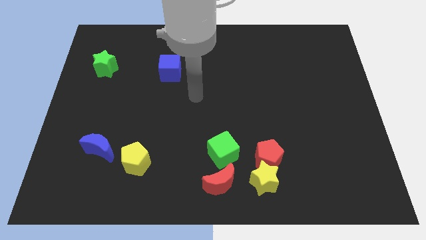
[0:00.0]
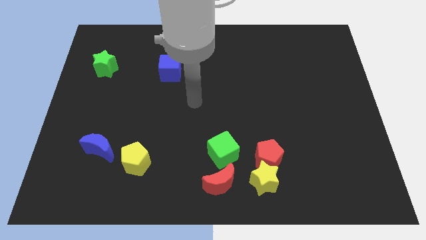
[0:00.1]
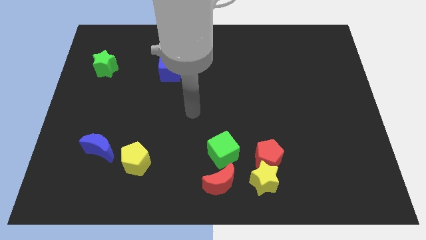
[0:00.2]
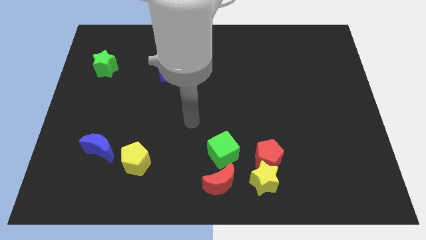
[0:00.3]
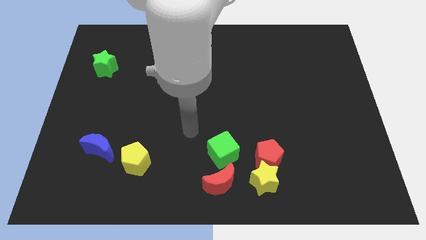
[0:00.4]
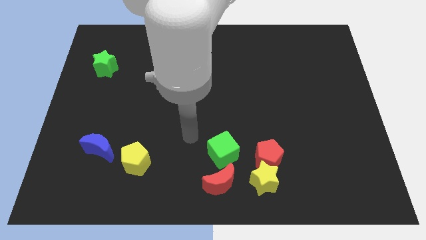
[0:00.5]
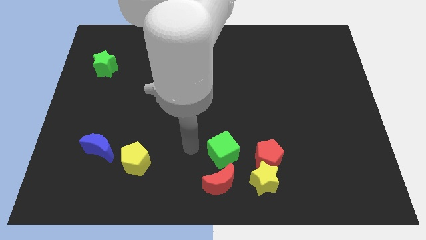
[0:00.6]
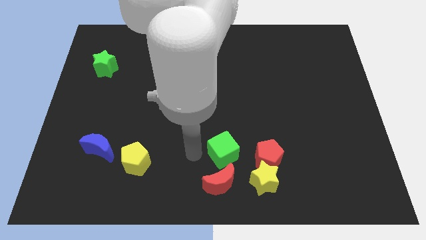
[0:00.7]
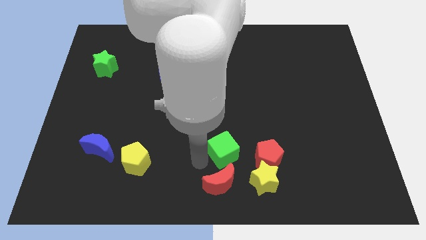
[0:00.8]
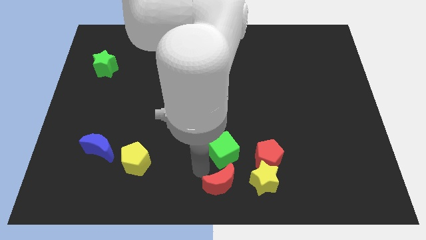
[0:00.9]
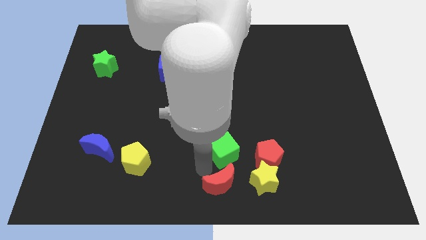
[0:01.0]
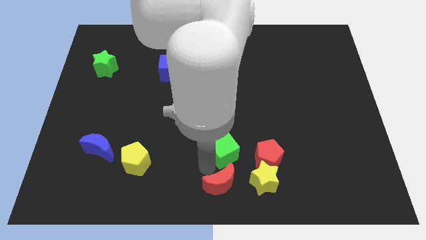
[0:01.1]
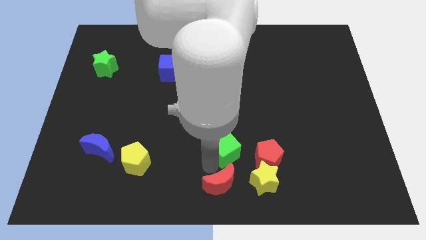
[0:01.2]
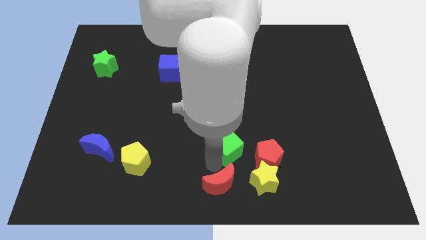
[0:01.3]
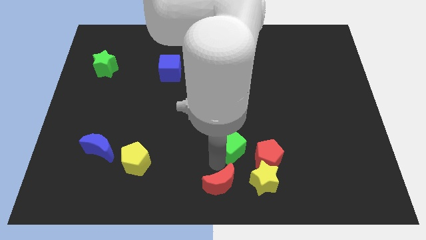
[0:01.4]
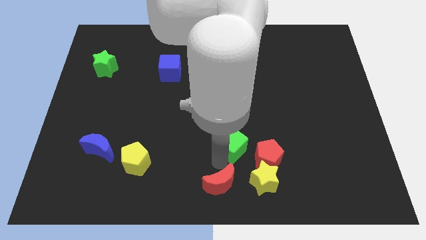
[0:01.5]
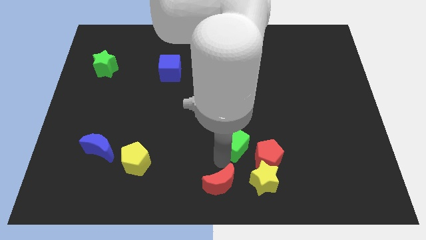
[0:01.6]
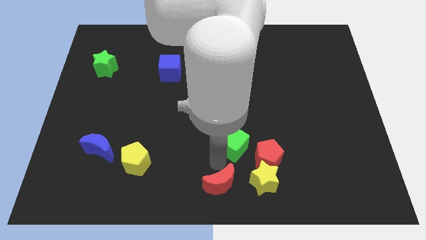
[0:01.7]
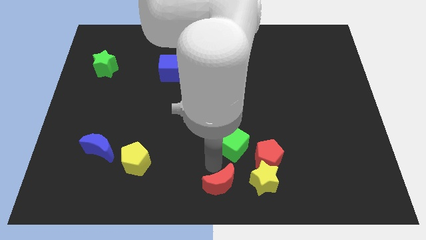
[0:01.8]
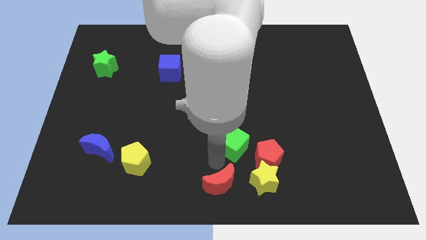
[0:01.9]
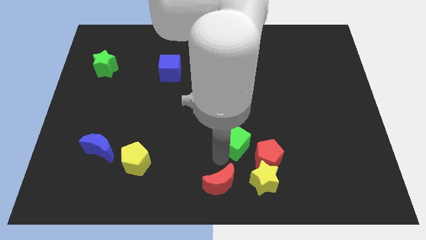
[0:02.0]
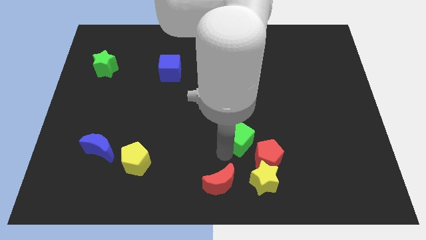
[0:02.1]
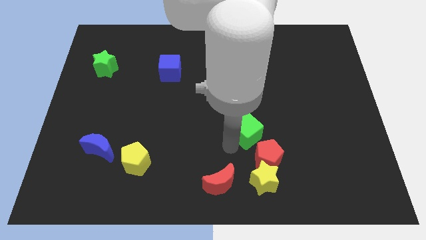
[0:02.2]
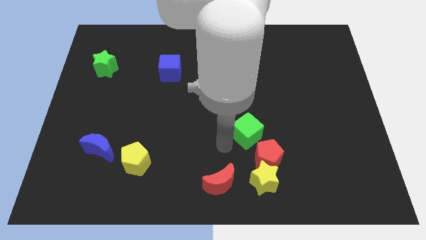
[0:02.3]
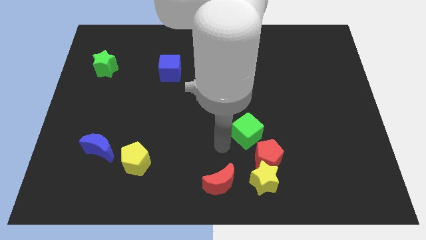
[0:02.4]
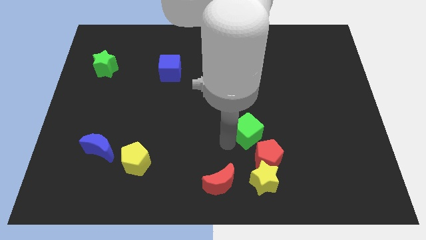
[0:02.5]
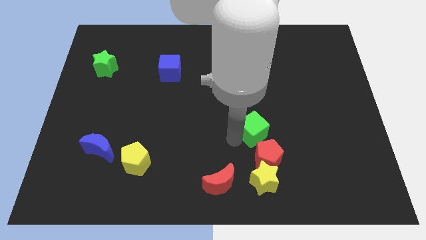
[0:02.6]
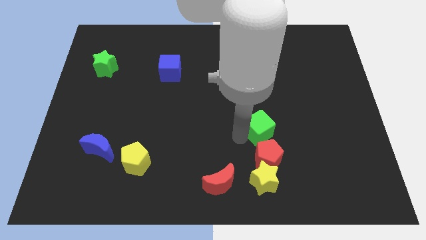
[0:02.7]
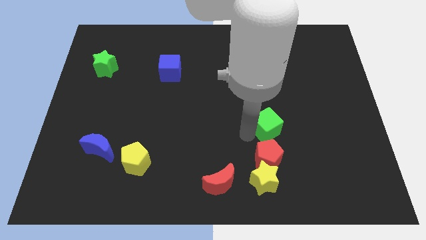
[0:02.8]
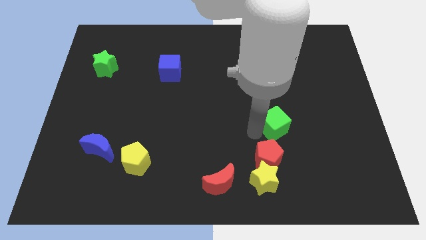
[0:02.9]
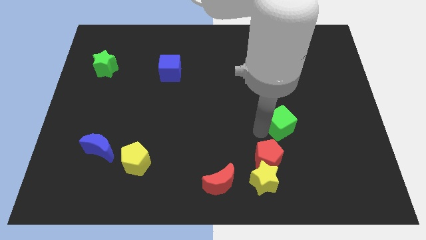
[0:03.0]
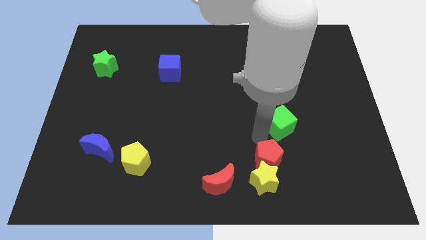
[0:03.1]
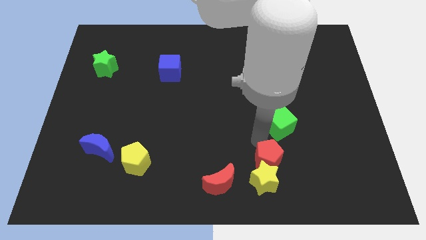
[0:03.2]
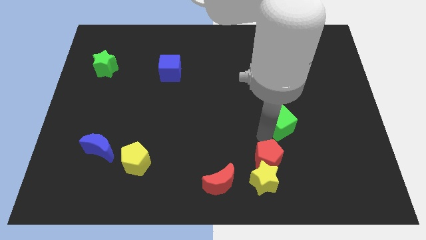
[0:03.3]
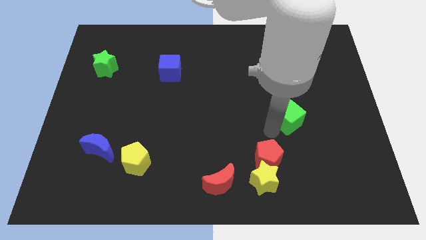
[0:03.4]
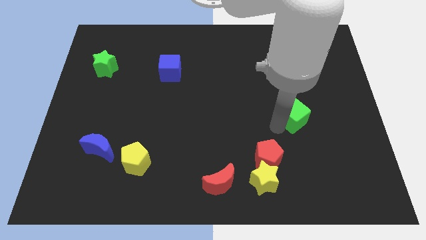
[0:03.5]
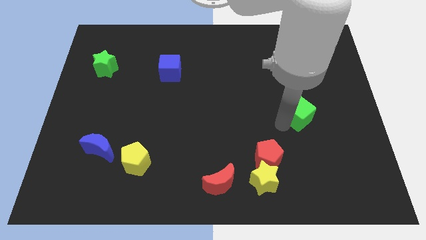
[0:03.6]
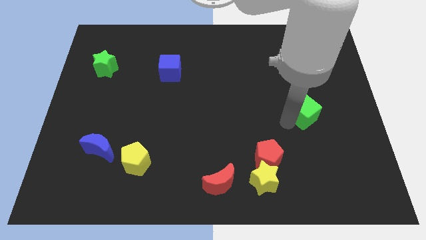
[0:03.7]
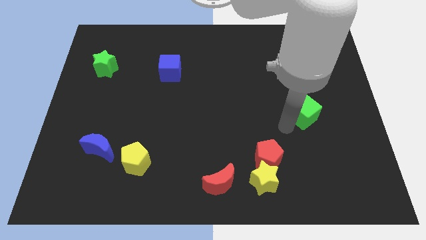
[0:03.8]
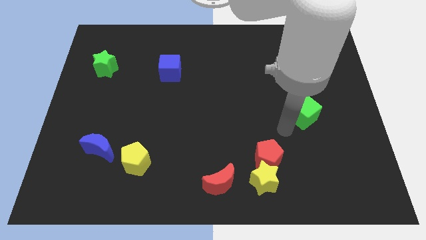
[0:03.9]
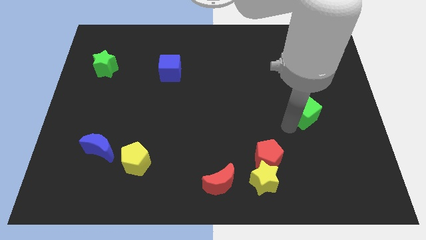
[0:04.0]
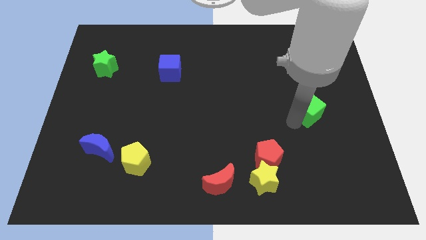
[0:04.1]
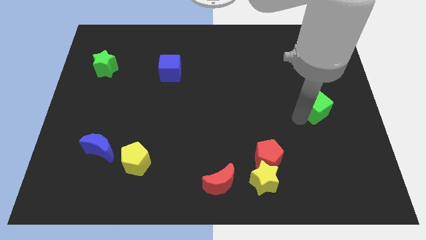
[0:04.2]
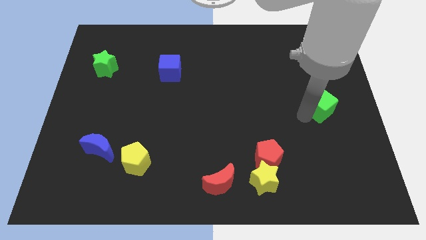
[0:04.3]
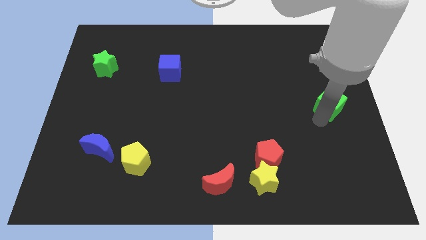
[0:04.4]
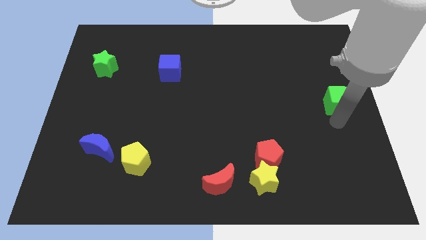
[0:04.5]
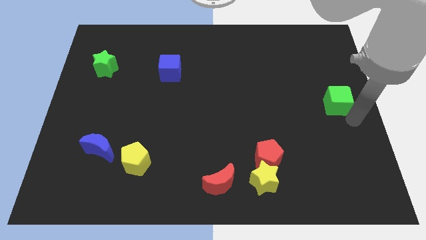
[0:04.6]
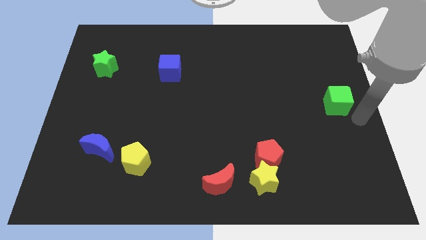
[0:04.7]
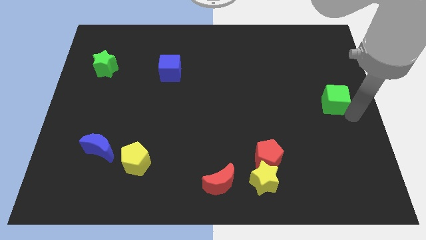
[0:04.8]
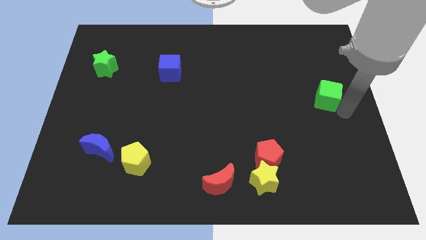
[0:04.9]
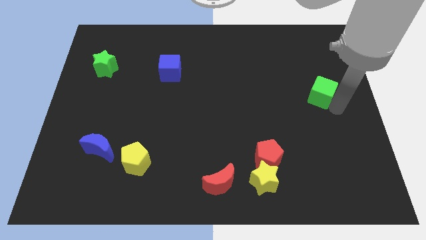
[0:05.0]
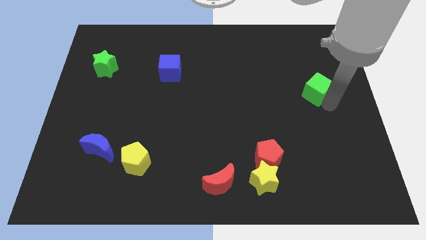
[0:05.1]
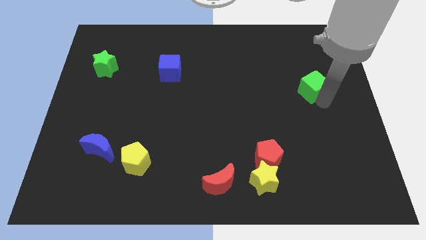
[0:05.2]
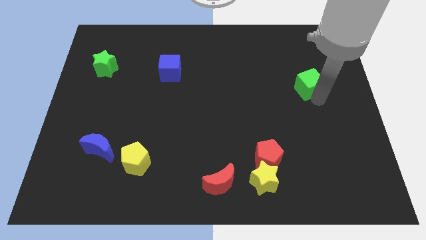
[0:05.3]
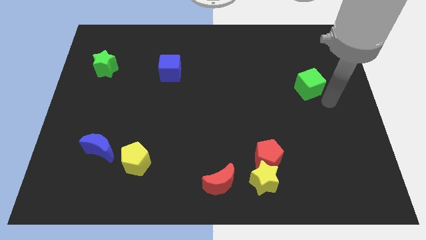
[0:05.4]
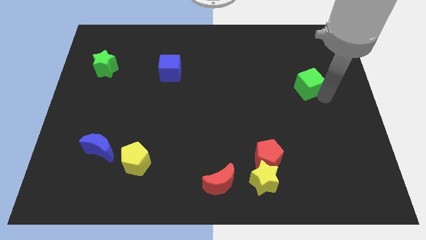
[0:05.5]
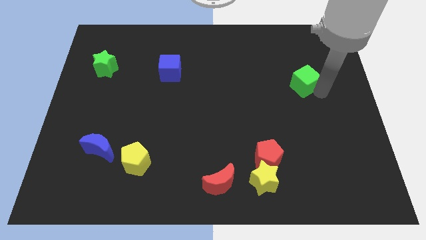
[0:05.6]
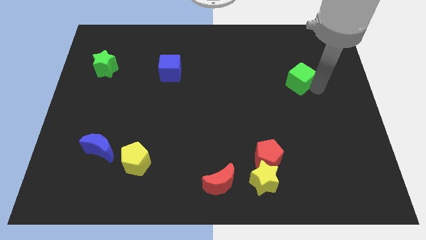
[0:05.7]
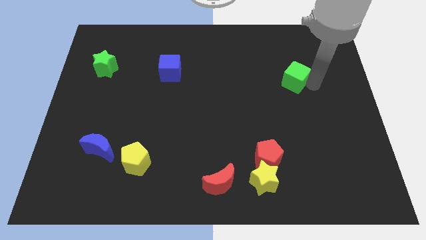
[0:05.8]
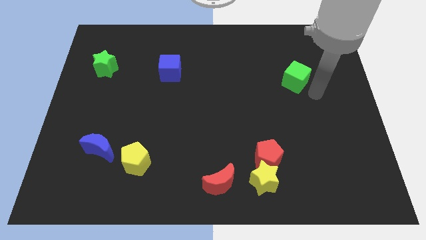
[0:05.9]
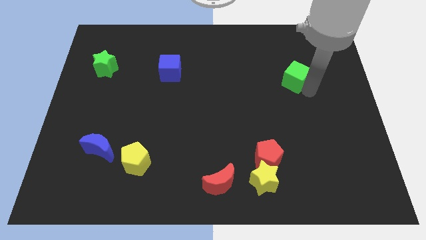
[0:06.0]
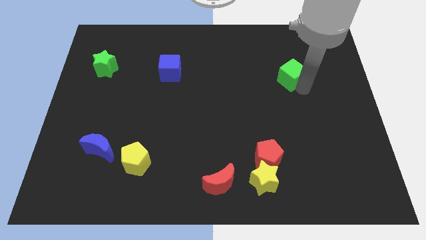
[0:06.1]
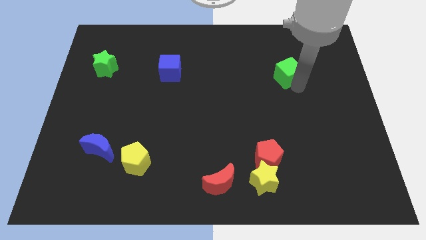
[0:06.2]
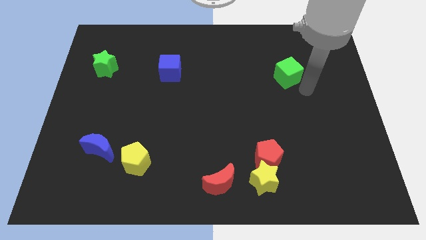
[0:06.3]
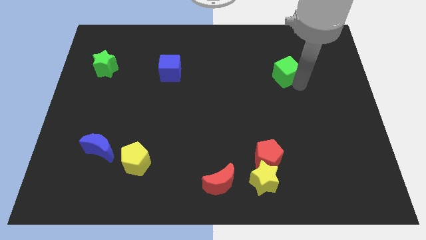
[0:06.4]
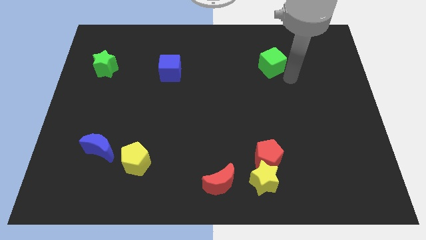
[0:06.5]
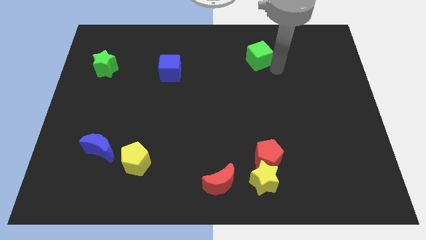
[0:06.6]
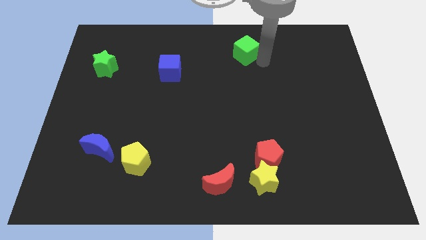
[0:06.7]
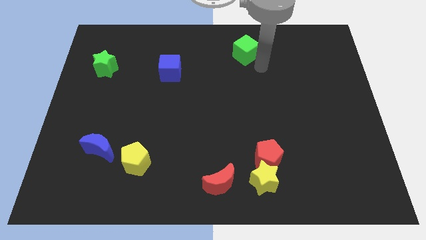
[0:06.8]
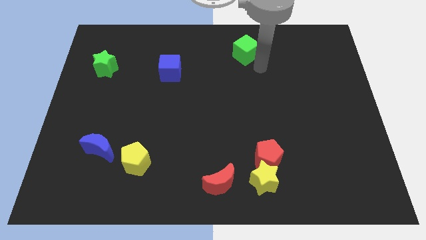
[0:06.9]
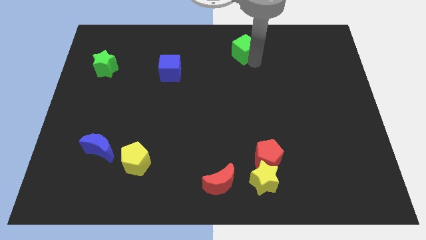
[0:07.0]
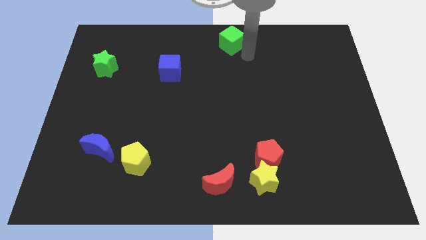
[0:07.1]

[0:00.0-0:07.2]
slide the green cube to the top side

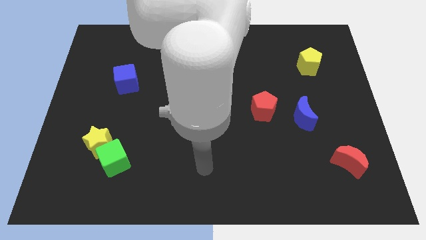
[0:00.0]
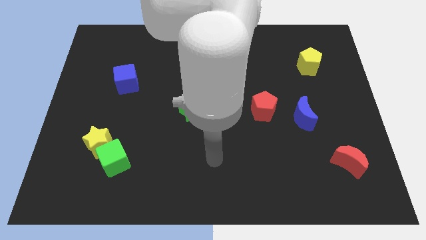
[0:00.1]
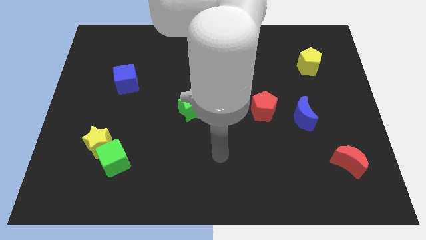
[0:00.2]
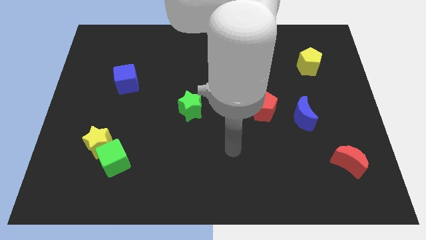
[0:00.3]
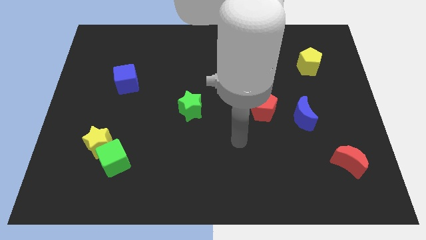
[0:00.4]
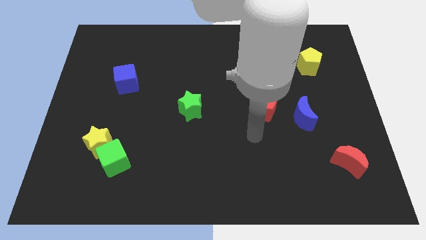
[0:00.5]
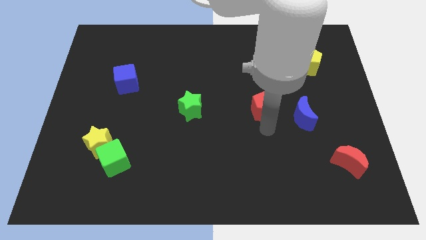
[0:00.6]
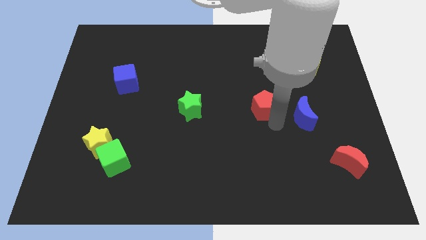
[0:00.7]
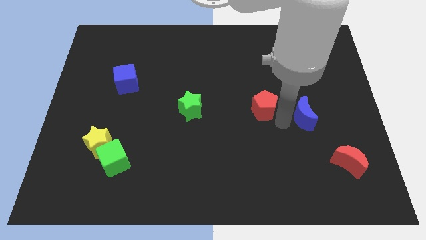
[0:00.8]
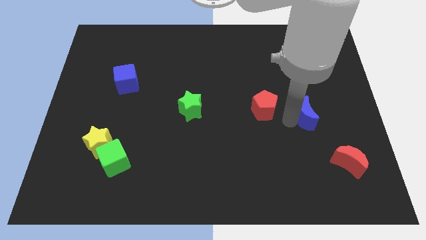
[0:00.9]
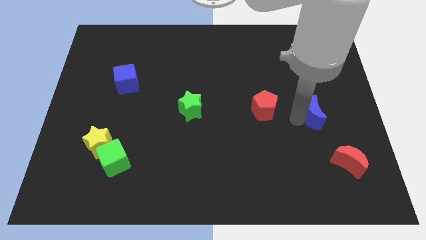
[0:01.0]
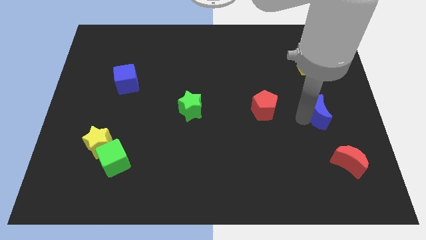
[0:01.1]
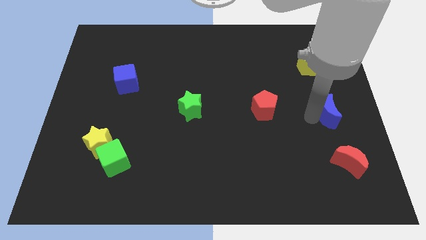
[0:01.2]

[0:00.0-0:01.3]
slide the blue moon to the right side of the board
